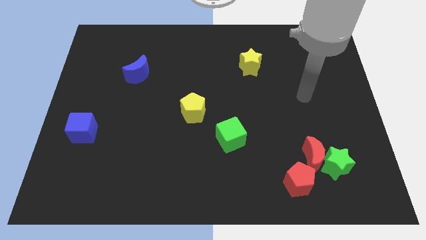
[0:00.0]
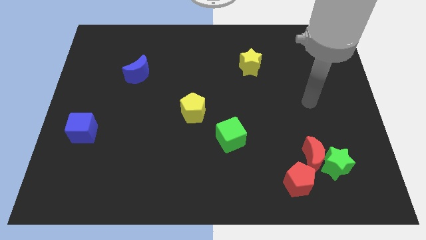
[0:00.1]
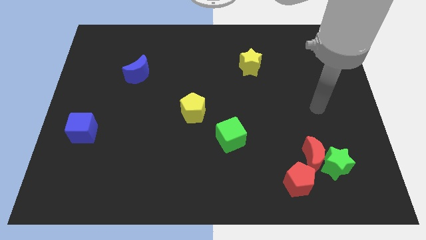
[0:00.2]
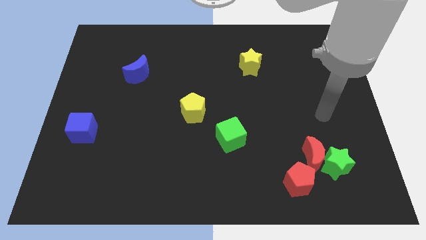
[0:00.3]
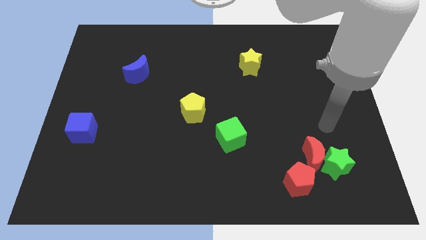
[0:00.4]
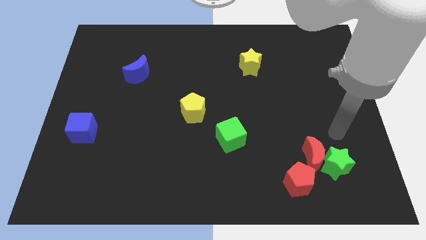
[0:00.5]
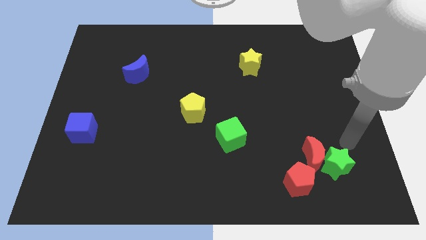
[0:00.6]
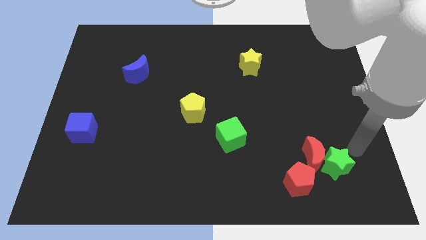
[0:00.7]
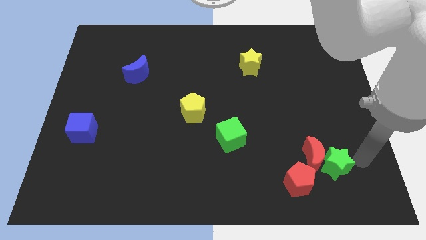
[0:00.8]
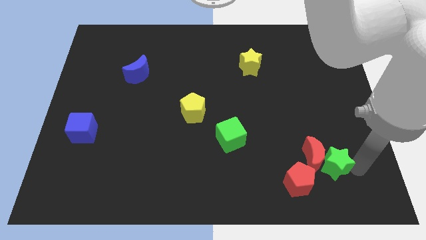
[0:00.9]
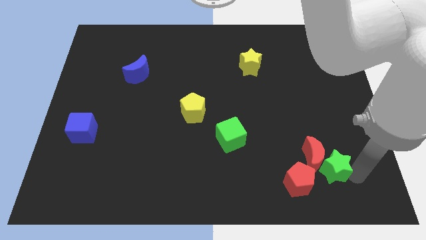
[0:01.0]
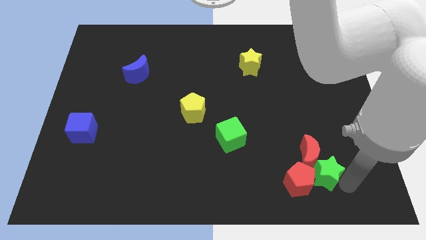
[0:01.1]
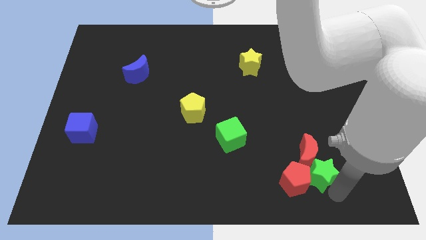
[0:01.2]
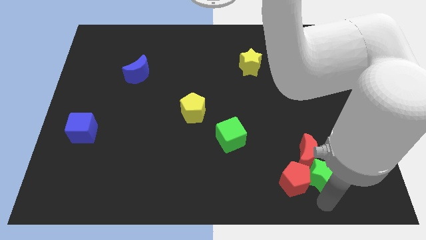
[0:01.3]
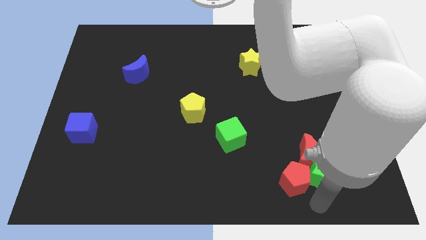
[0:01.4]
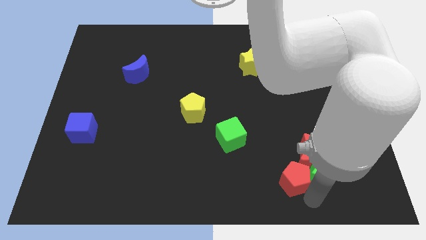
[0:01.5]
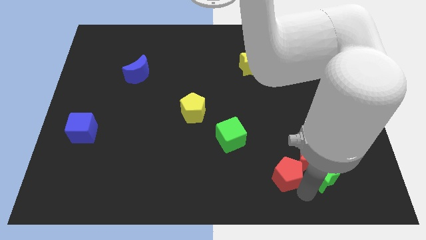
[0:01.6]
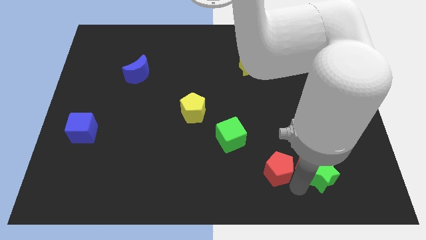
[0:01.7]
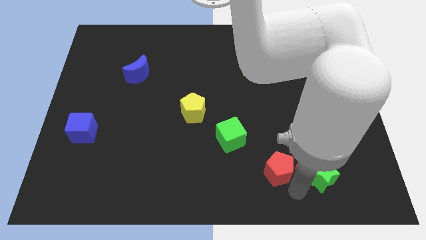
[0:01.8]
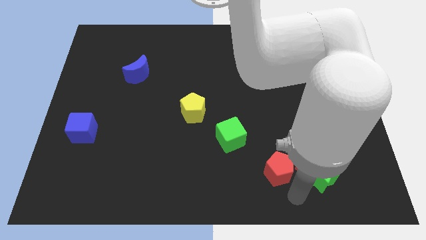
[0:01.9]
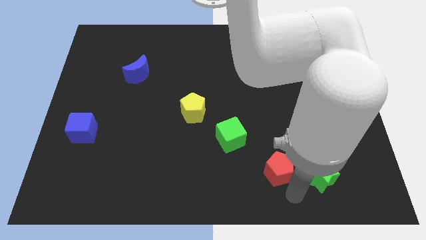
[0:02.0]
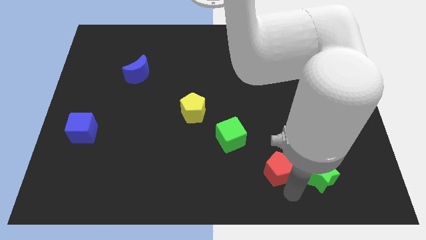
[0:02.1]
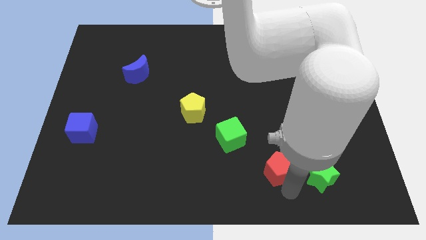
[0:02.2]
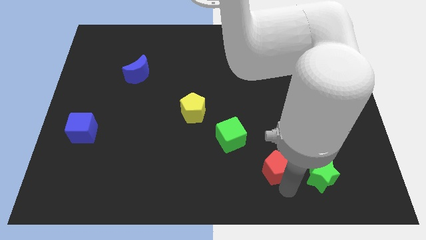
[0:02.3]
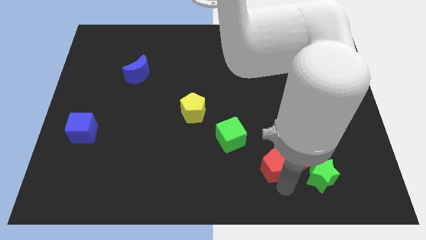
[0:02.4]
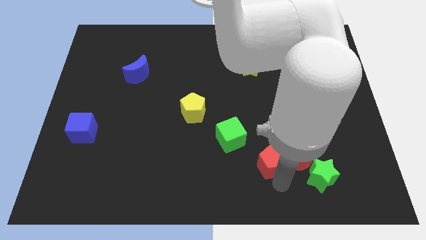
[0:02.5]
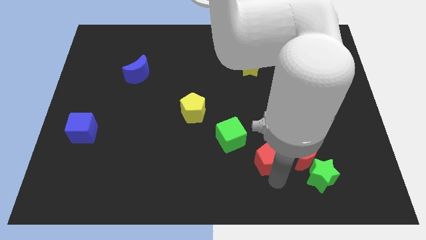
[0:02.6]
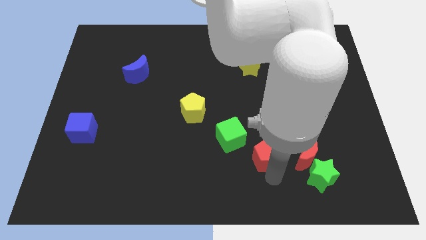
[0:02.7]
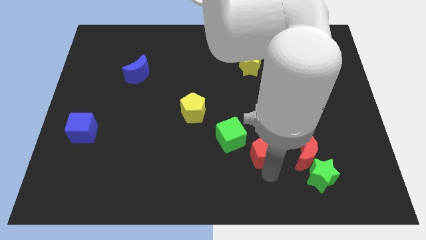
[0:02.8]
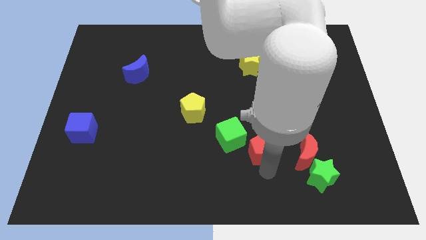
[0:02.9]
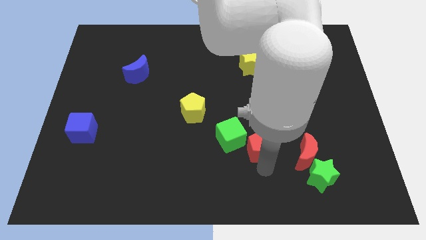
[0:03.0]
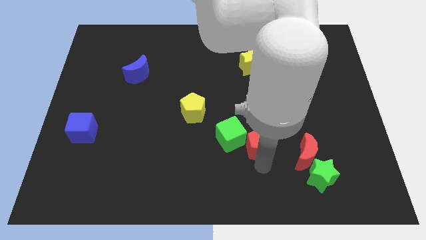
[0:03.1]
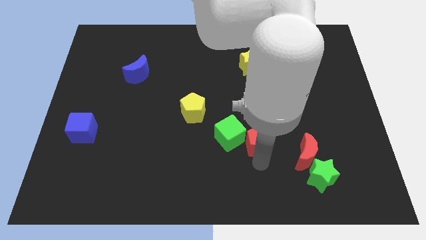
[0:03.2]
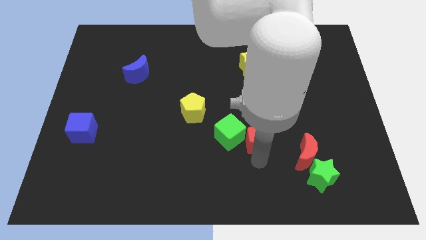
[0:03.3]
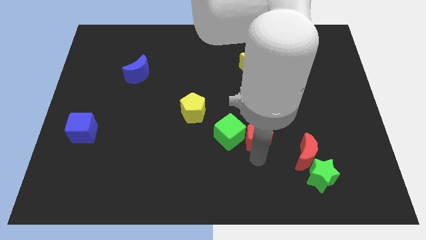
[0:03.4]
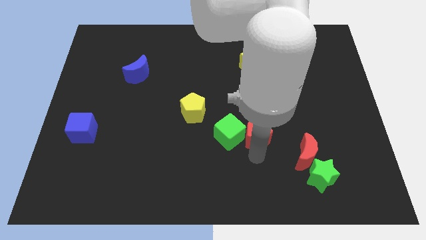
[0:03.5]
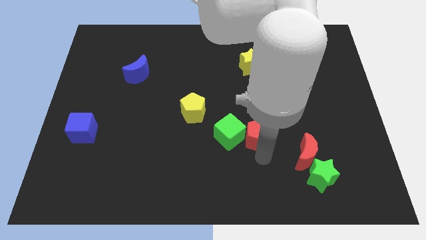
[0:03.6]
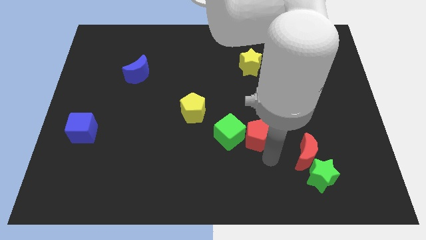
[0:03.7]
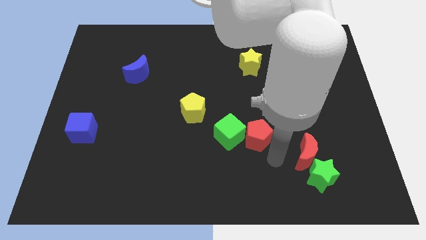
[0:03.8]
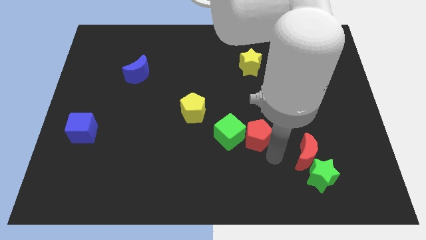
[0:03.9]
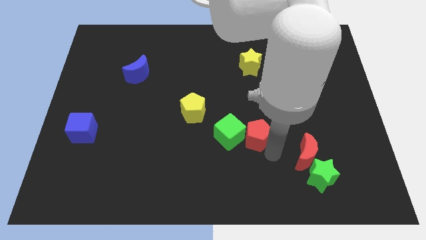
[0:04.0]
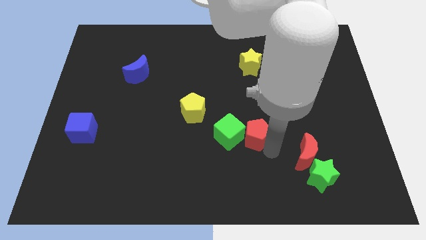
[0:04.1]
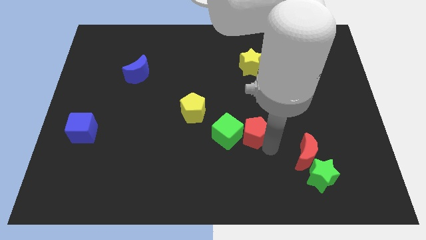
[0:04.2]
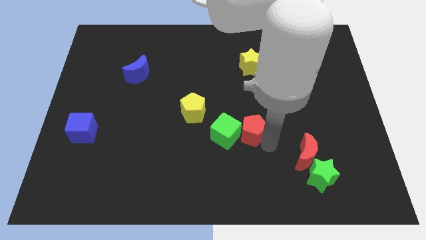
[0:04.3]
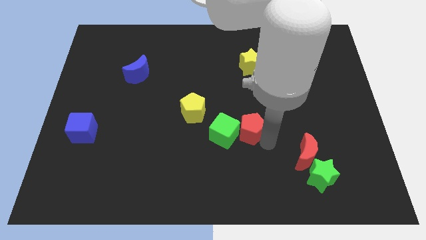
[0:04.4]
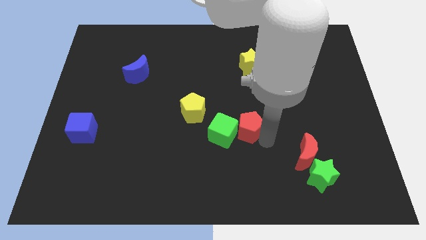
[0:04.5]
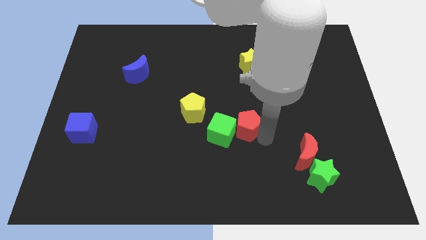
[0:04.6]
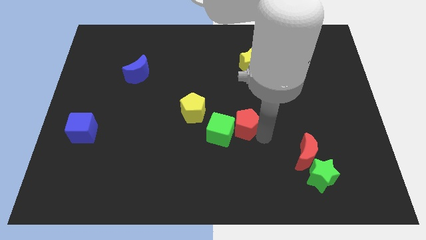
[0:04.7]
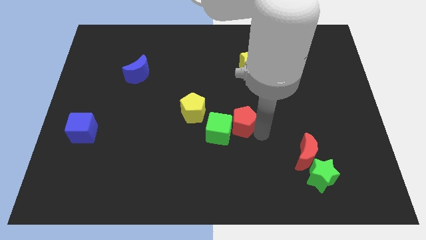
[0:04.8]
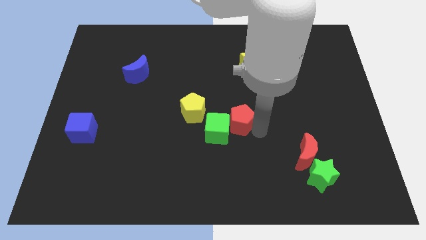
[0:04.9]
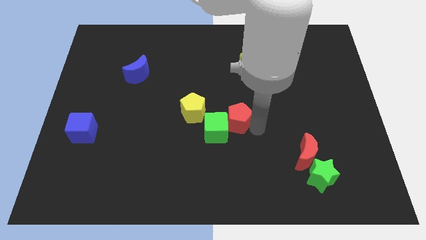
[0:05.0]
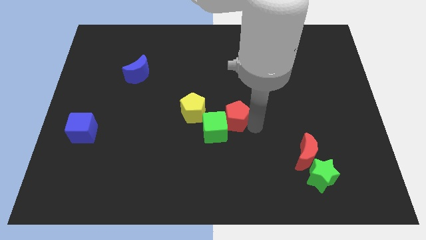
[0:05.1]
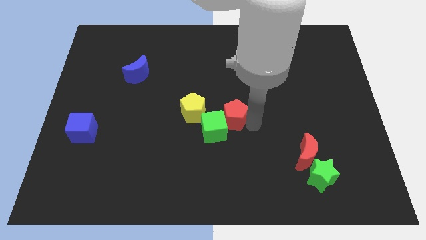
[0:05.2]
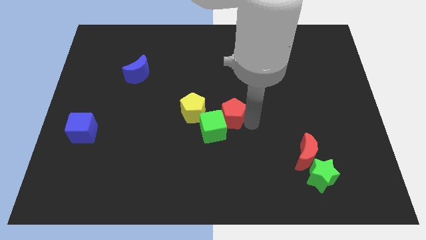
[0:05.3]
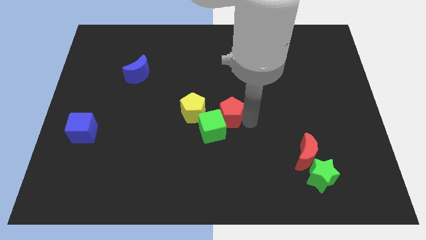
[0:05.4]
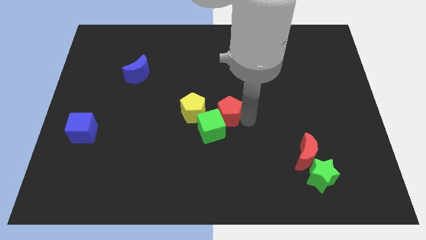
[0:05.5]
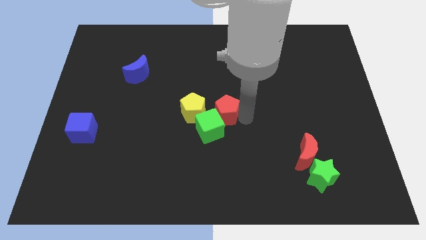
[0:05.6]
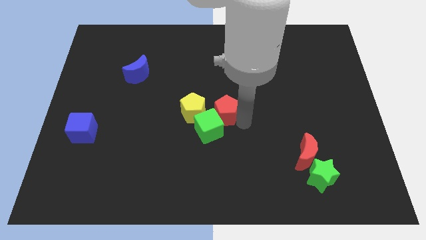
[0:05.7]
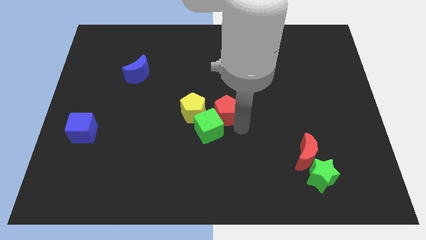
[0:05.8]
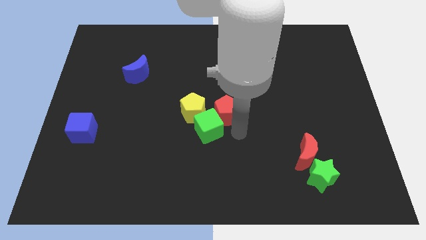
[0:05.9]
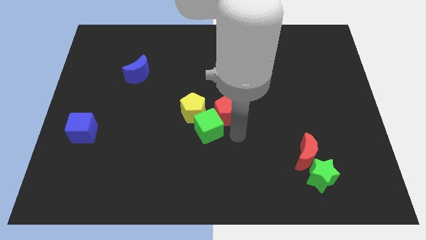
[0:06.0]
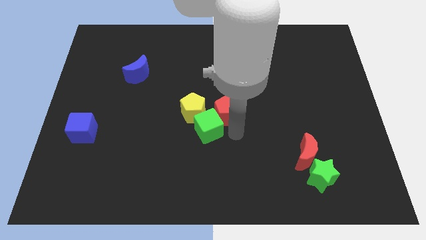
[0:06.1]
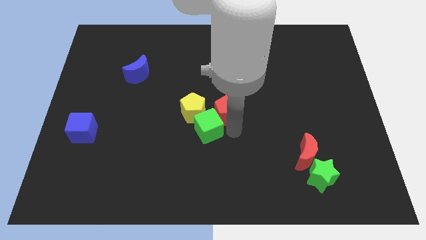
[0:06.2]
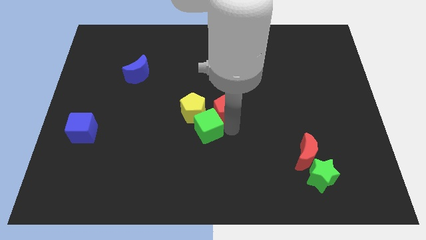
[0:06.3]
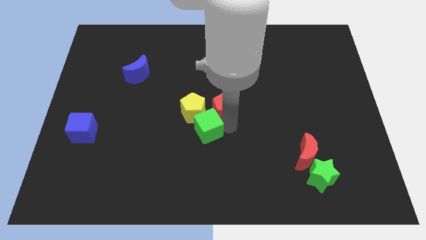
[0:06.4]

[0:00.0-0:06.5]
put the red pentagon to the top right side of the yellow pentagon

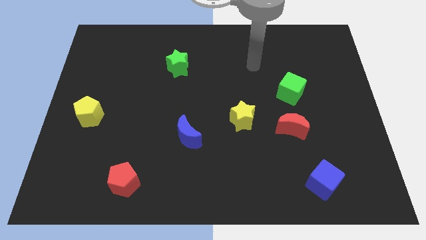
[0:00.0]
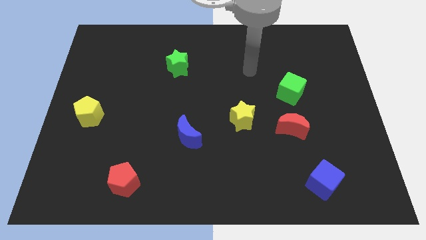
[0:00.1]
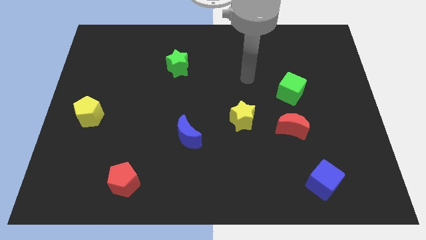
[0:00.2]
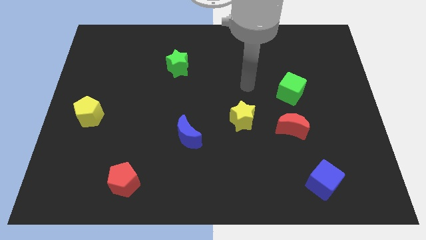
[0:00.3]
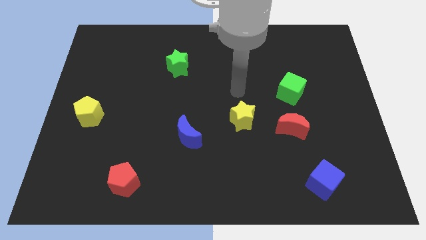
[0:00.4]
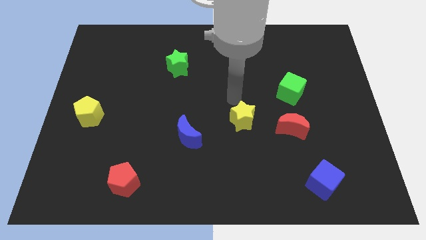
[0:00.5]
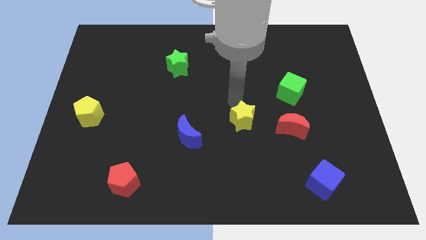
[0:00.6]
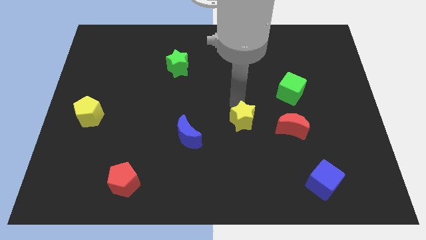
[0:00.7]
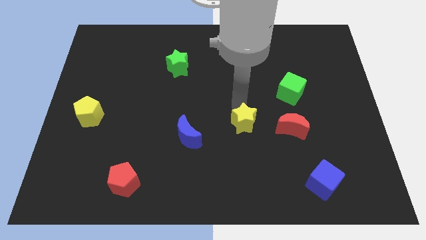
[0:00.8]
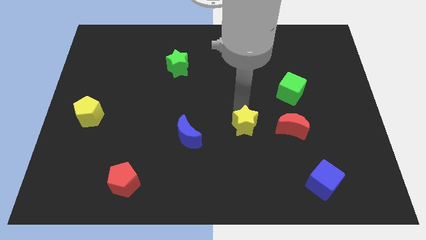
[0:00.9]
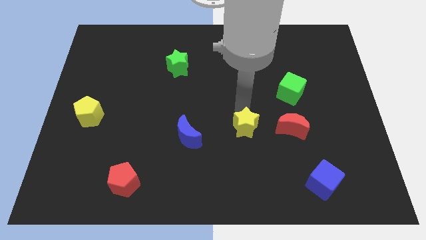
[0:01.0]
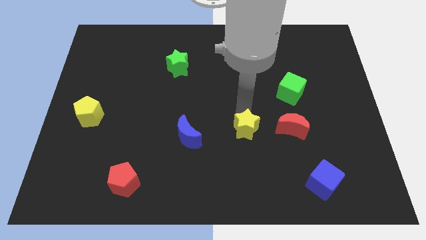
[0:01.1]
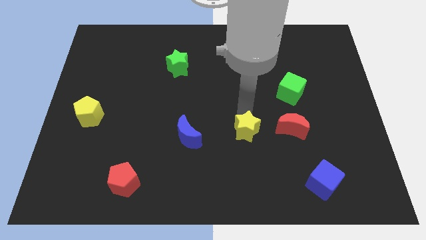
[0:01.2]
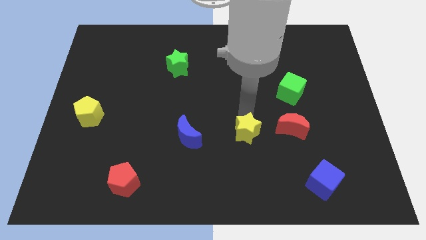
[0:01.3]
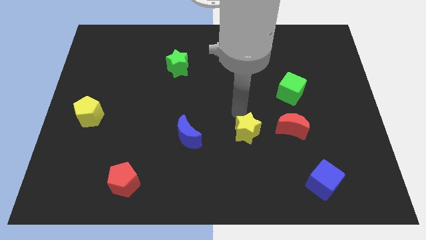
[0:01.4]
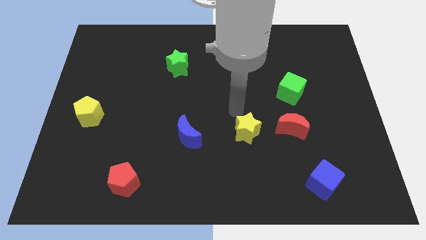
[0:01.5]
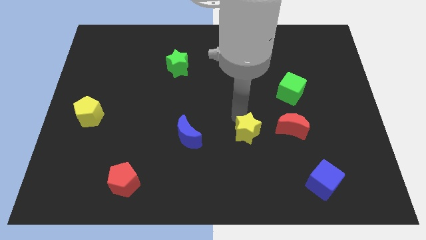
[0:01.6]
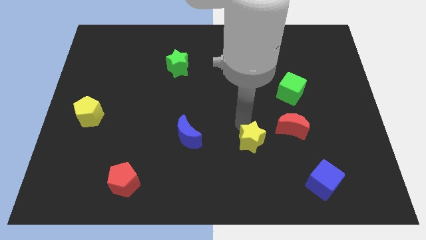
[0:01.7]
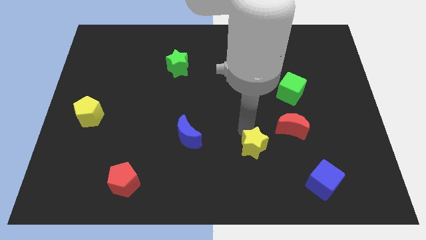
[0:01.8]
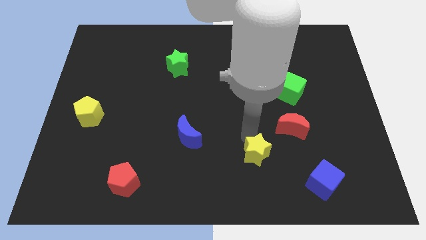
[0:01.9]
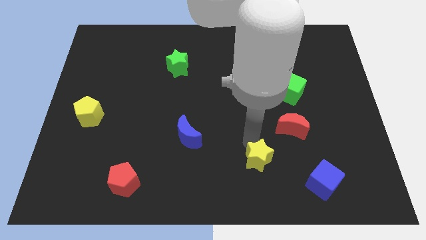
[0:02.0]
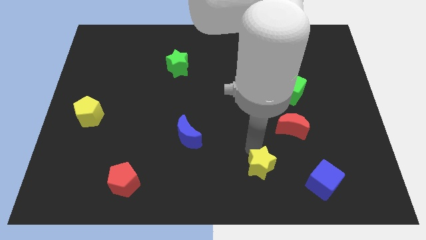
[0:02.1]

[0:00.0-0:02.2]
slide the yellow star left of the blue cube
